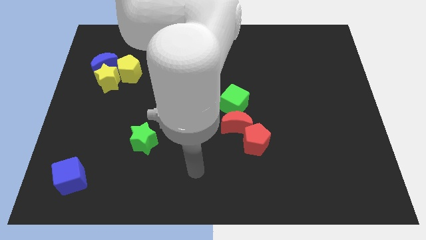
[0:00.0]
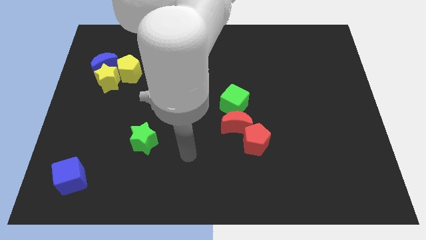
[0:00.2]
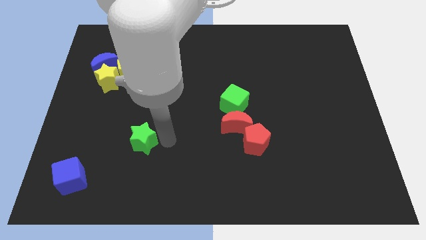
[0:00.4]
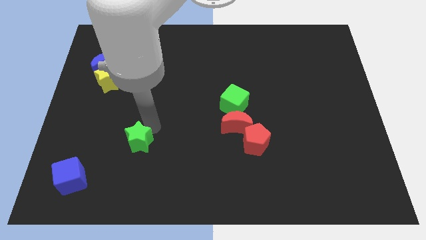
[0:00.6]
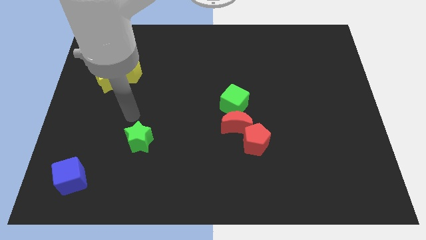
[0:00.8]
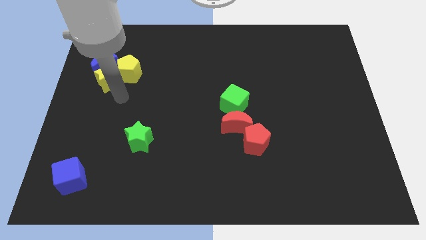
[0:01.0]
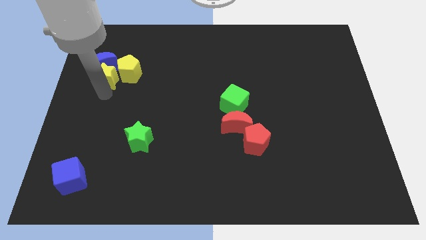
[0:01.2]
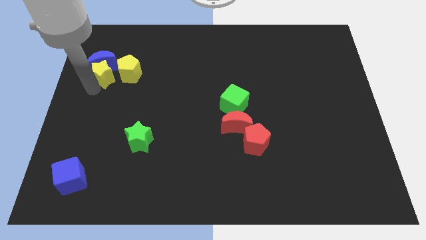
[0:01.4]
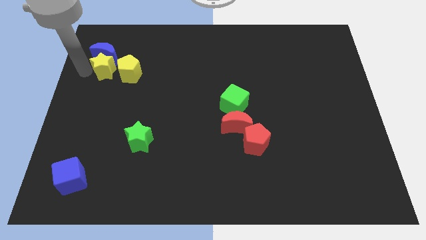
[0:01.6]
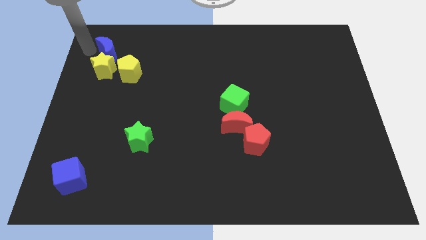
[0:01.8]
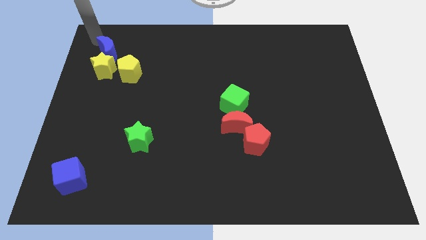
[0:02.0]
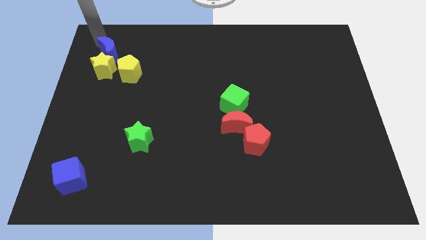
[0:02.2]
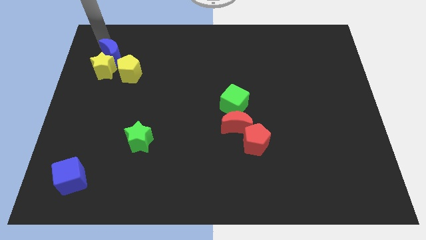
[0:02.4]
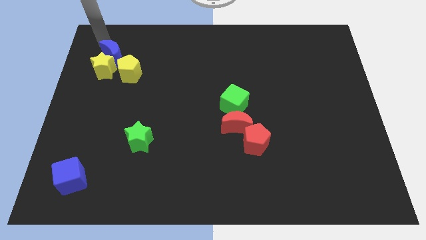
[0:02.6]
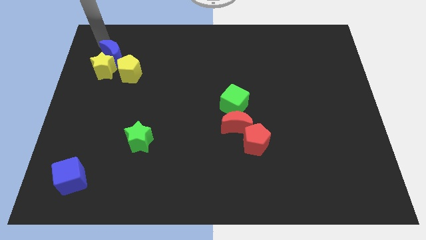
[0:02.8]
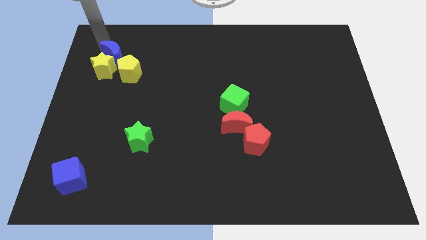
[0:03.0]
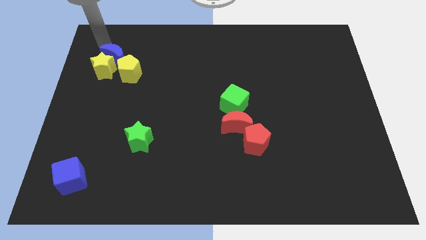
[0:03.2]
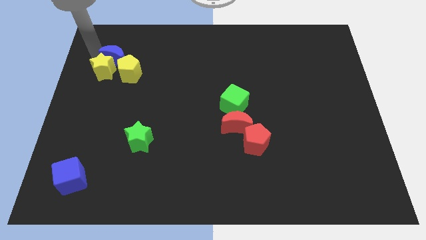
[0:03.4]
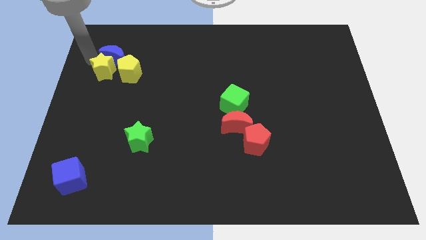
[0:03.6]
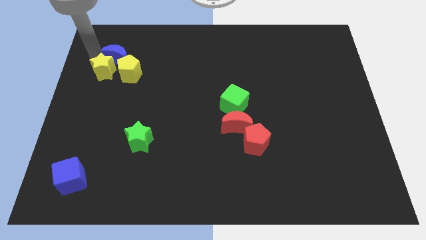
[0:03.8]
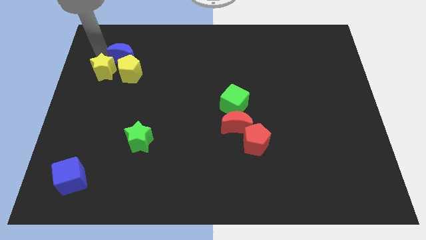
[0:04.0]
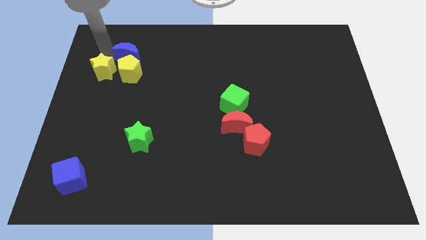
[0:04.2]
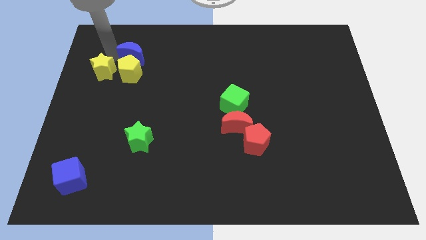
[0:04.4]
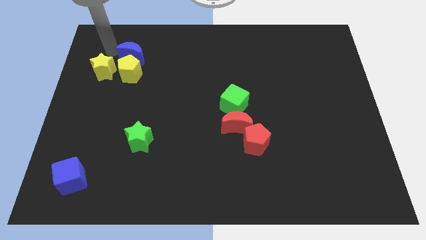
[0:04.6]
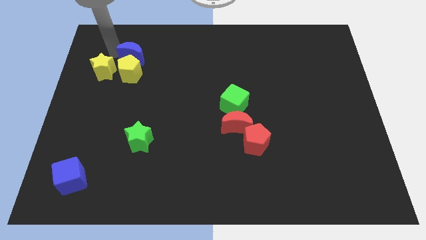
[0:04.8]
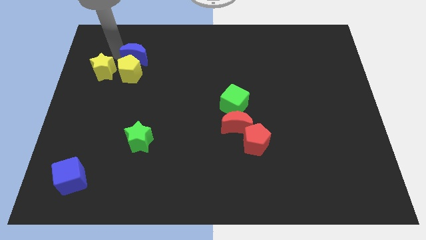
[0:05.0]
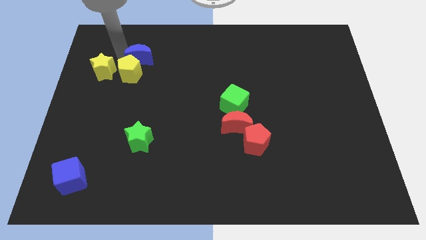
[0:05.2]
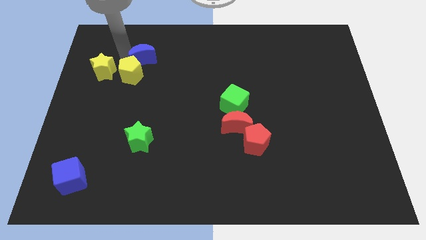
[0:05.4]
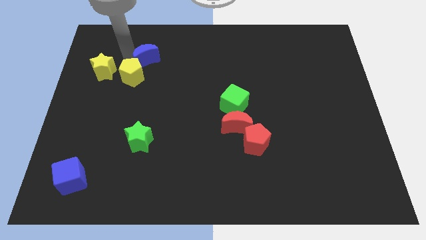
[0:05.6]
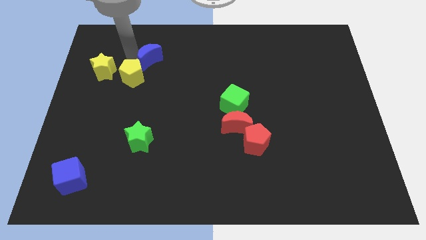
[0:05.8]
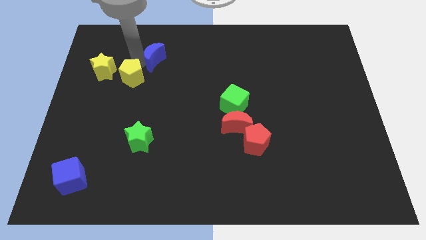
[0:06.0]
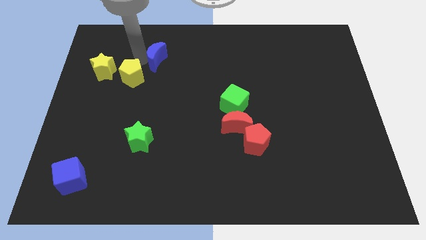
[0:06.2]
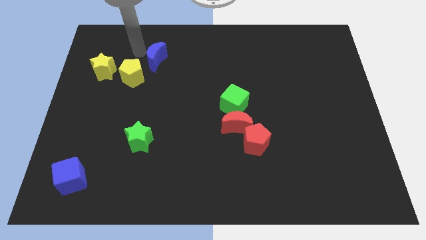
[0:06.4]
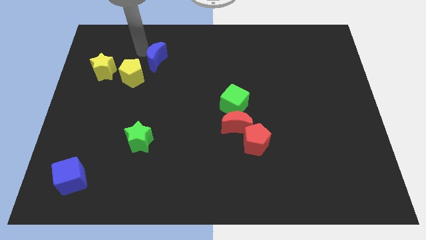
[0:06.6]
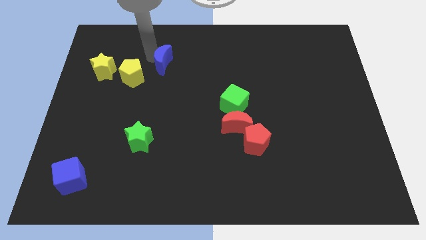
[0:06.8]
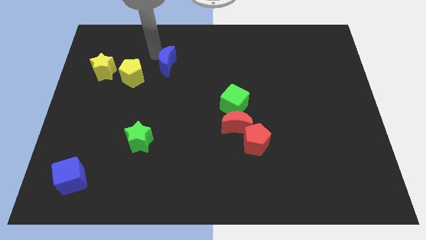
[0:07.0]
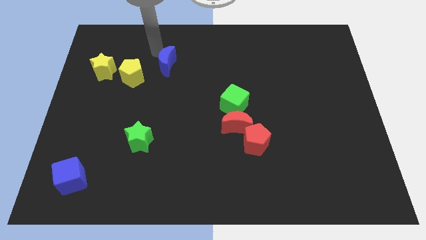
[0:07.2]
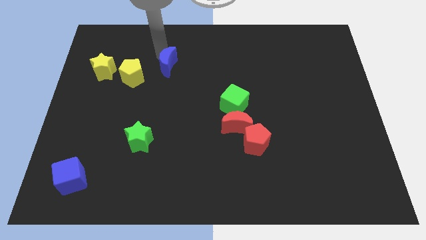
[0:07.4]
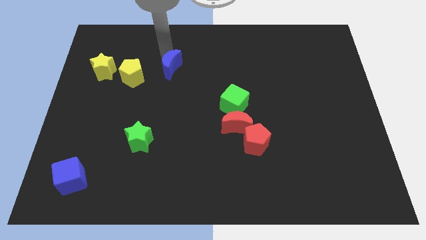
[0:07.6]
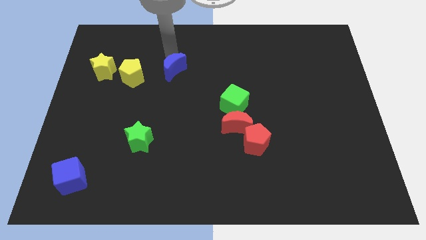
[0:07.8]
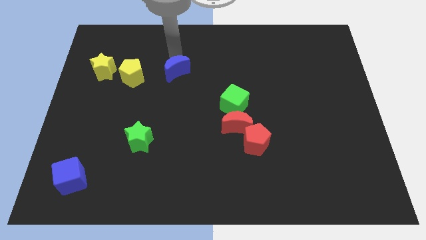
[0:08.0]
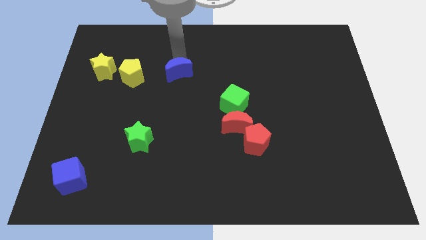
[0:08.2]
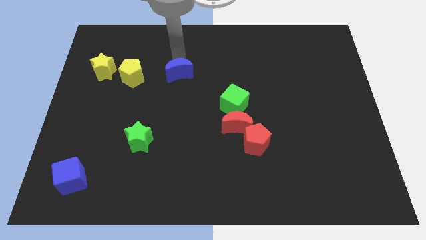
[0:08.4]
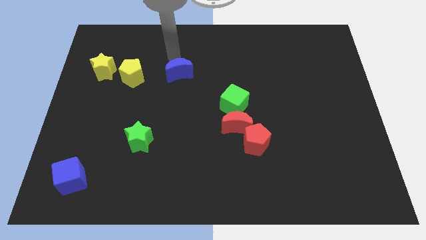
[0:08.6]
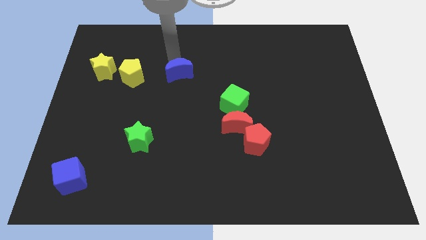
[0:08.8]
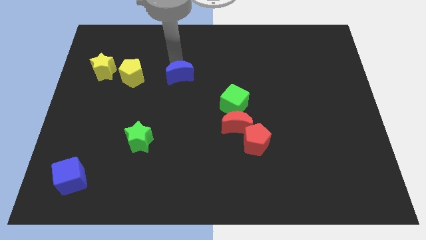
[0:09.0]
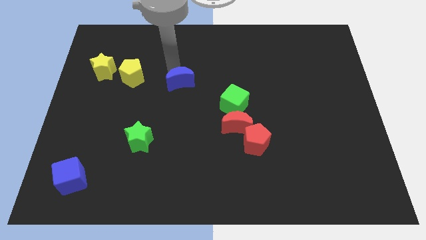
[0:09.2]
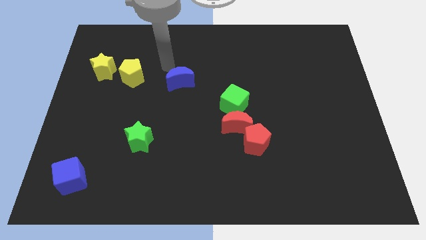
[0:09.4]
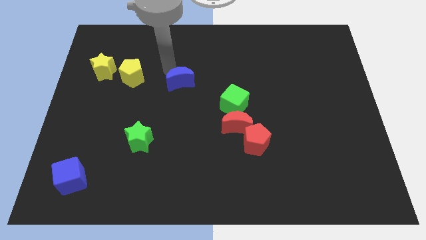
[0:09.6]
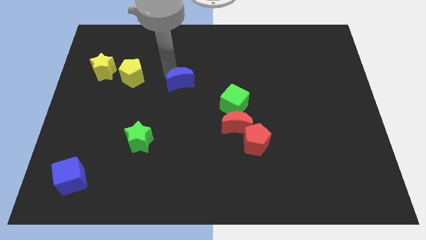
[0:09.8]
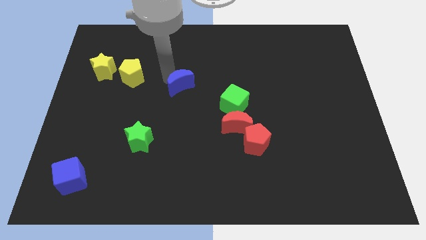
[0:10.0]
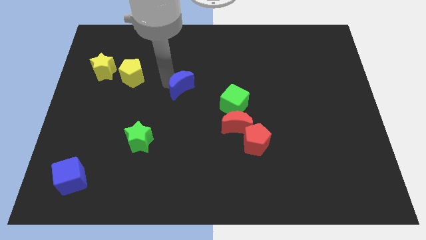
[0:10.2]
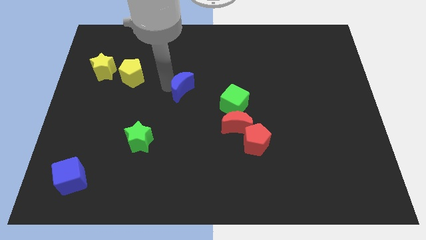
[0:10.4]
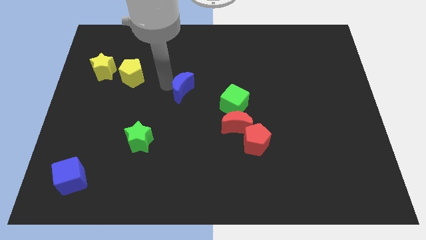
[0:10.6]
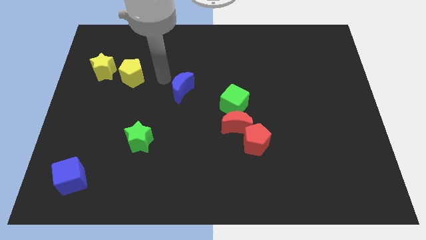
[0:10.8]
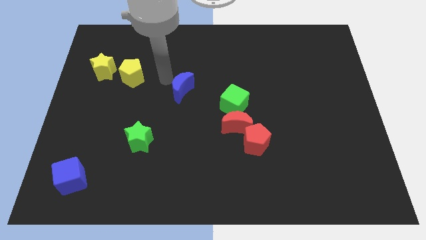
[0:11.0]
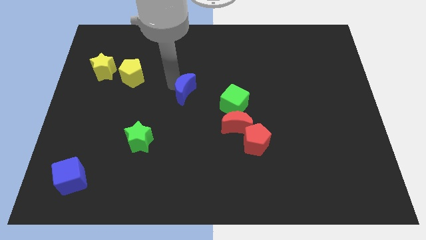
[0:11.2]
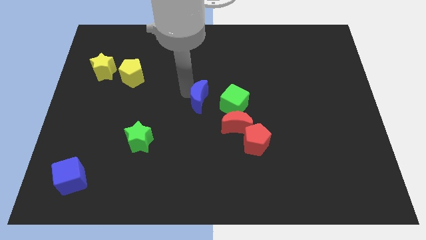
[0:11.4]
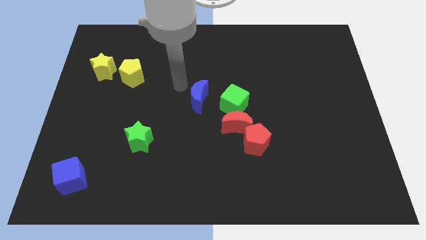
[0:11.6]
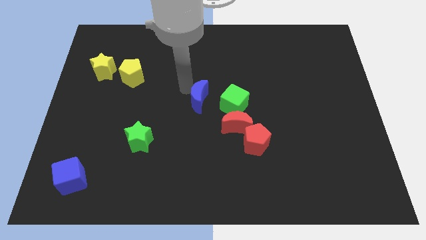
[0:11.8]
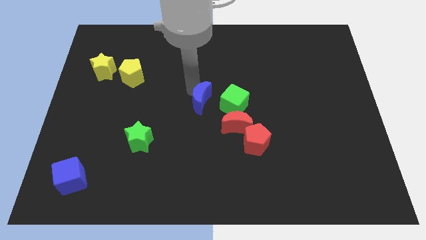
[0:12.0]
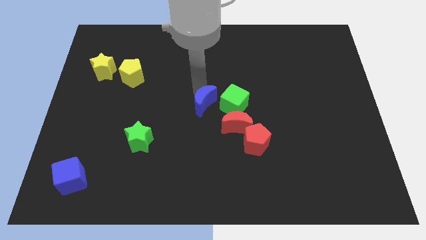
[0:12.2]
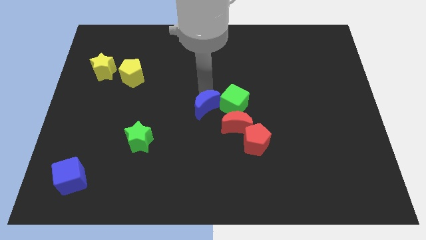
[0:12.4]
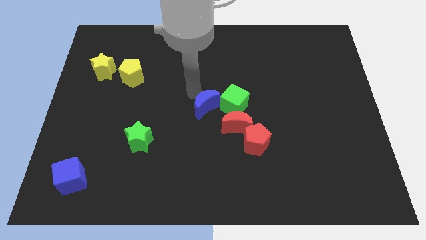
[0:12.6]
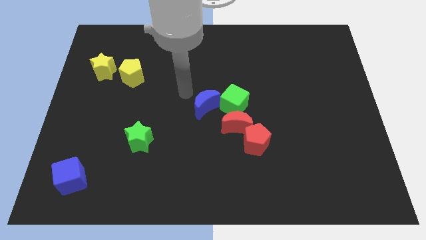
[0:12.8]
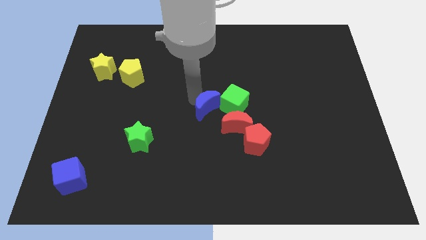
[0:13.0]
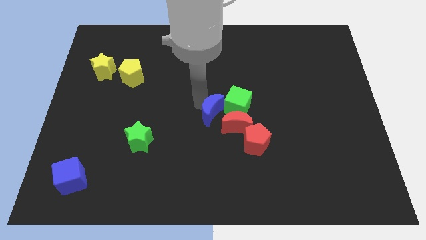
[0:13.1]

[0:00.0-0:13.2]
put the blue moon to the top left side of the red pentagon

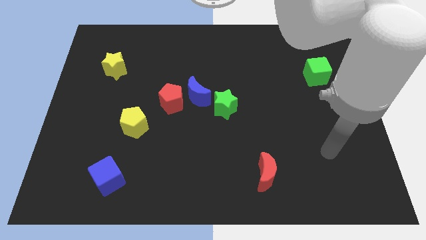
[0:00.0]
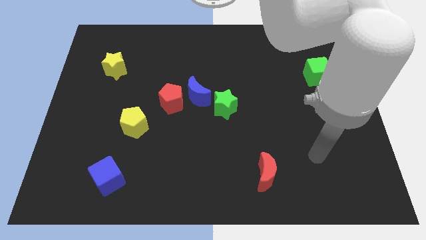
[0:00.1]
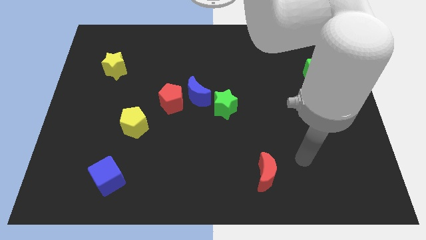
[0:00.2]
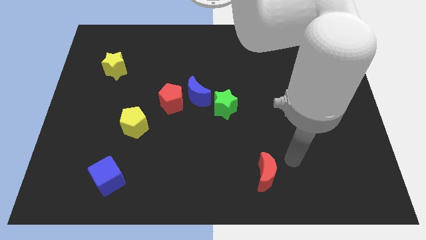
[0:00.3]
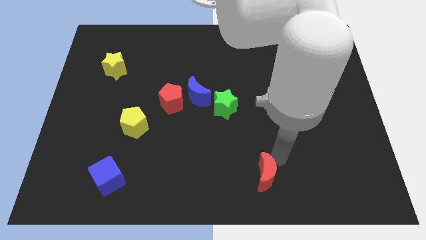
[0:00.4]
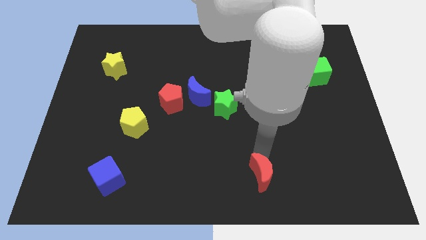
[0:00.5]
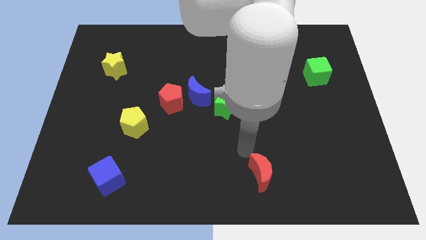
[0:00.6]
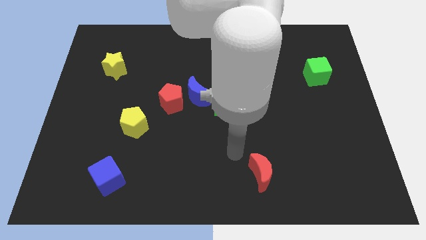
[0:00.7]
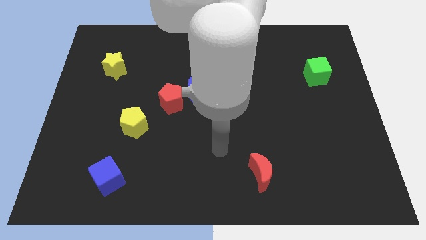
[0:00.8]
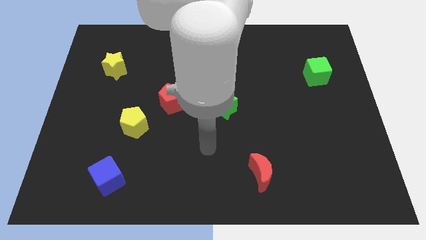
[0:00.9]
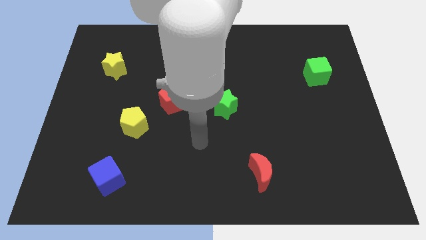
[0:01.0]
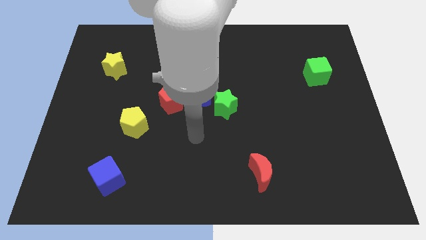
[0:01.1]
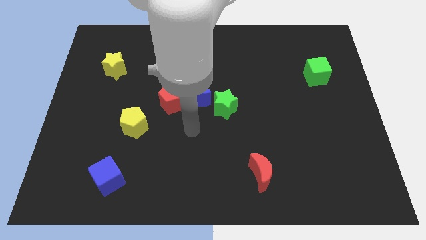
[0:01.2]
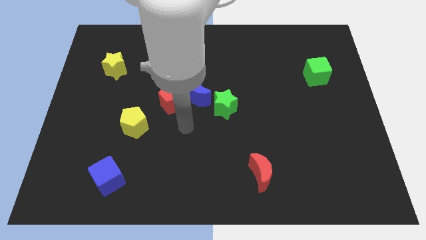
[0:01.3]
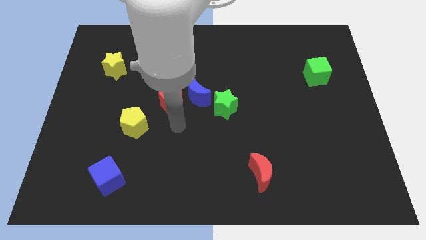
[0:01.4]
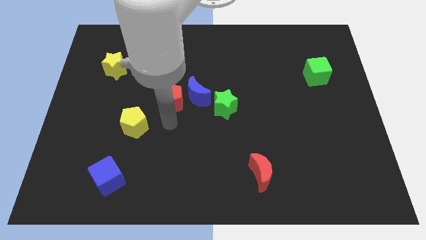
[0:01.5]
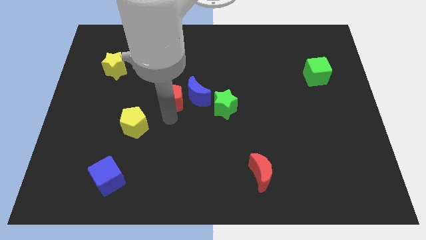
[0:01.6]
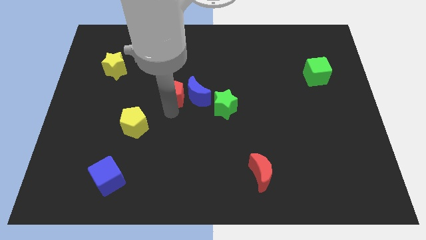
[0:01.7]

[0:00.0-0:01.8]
slide the red pentagon to the top left side of the blue moon
